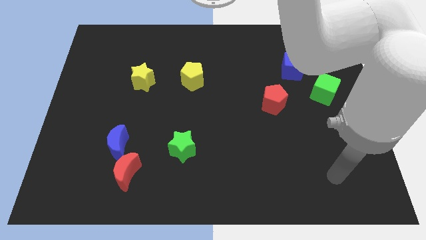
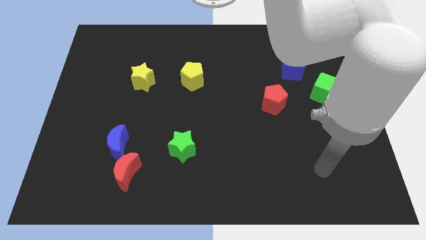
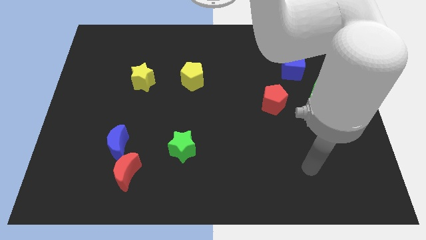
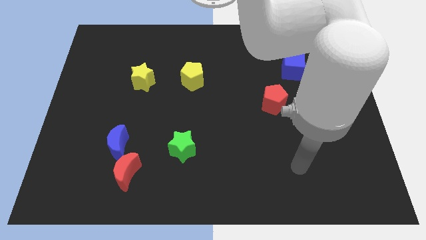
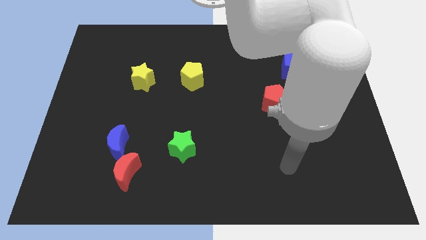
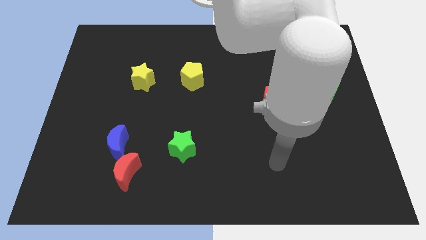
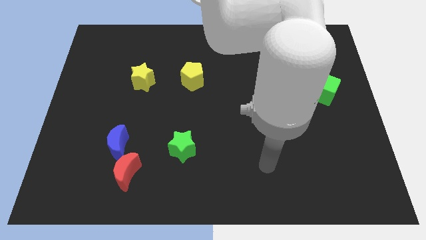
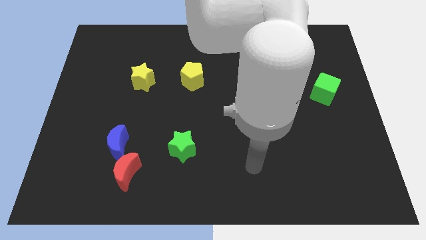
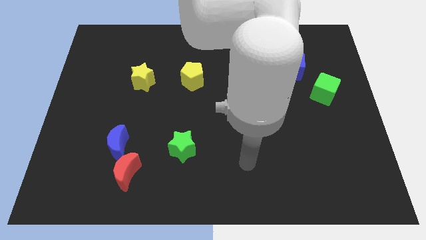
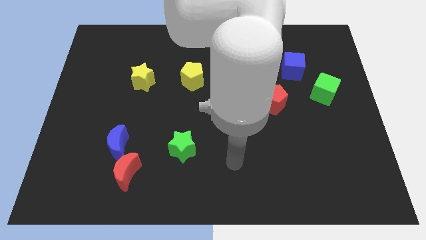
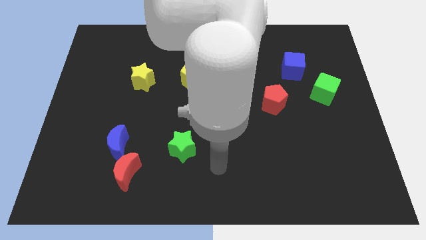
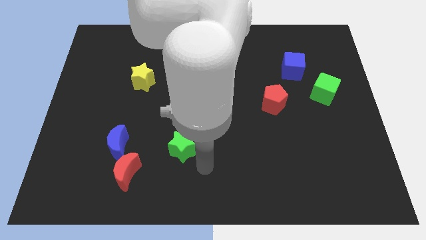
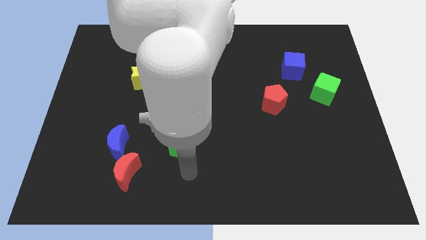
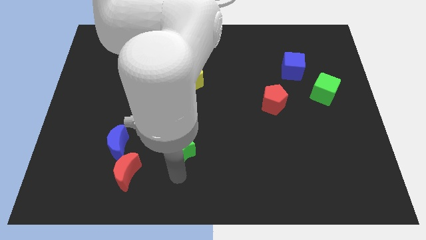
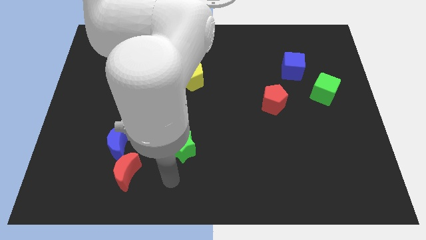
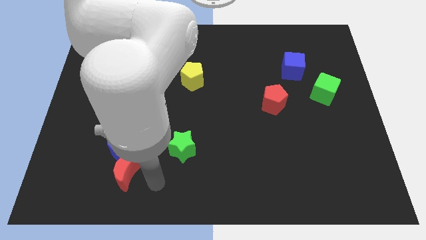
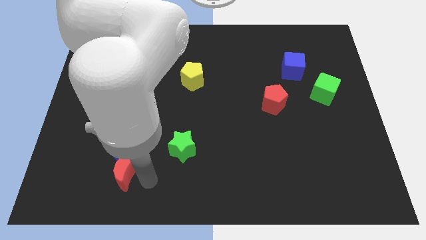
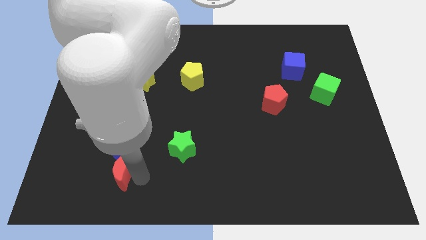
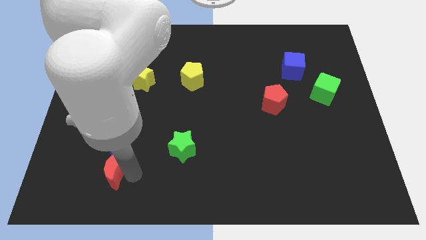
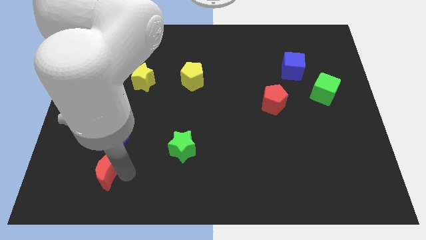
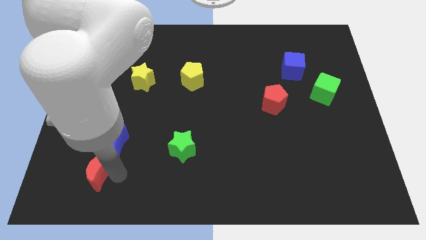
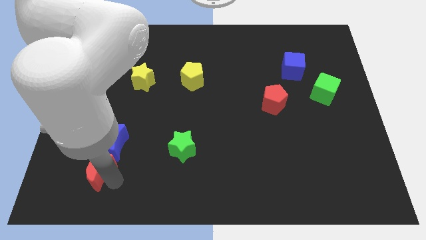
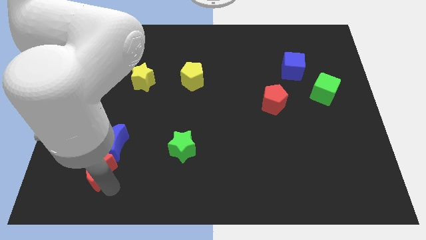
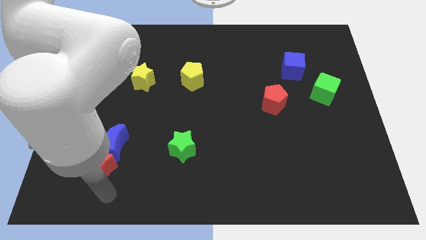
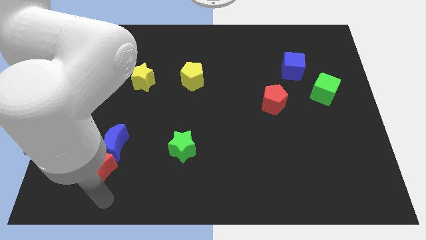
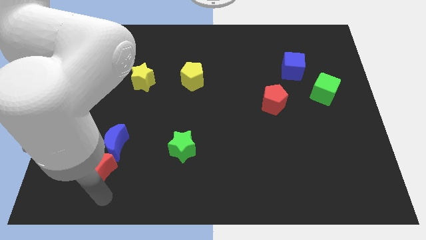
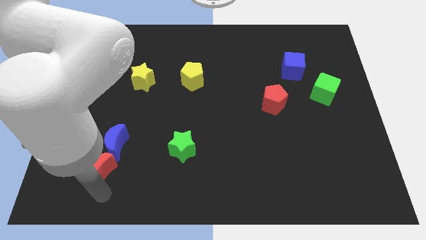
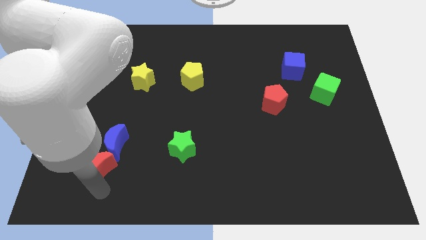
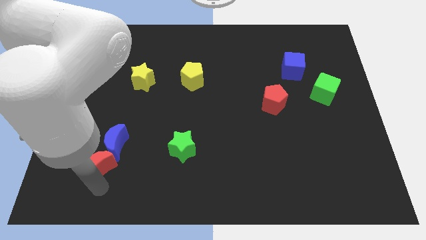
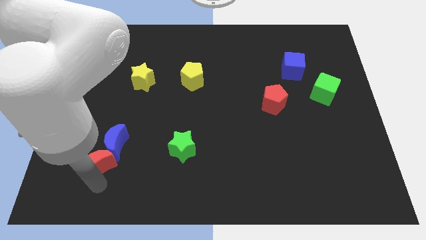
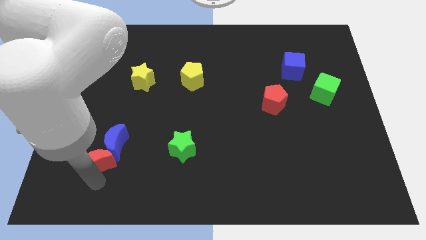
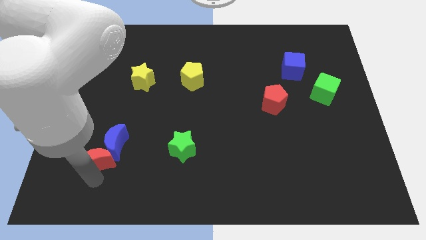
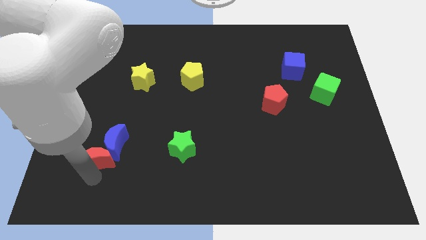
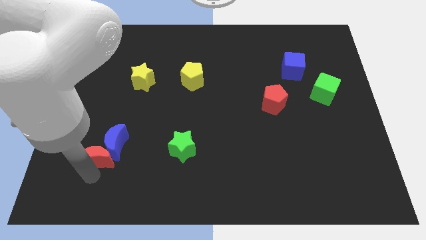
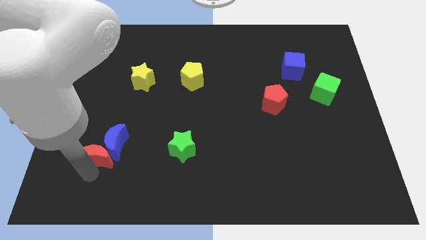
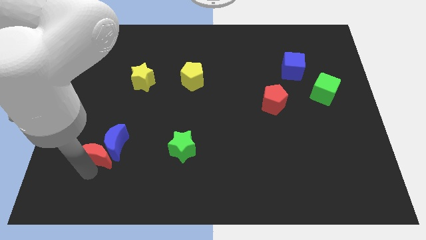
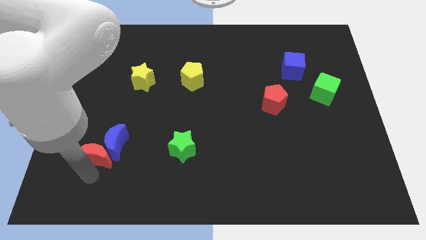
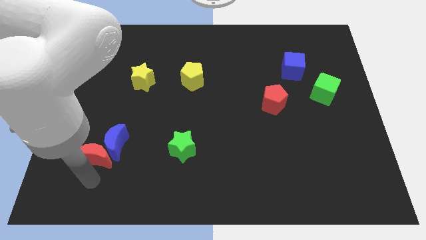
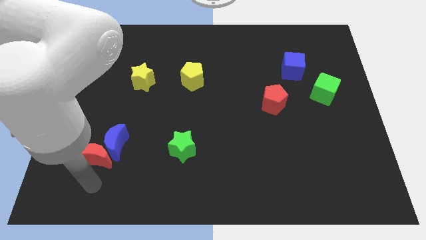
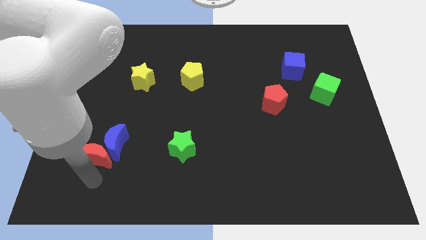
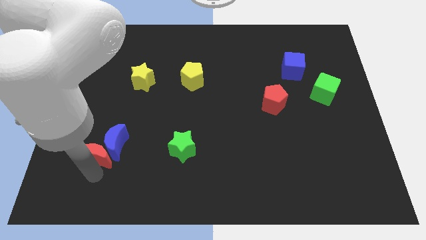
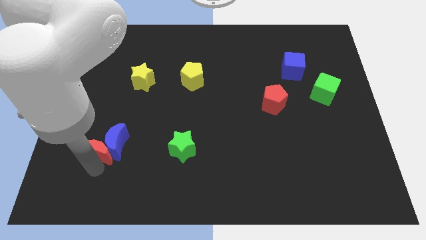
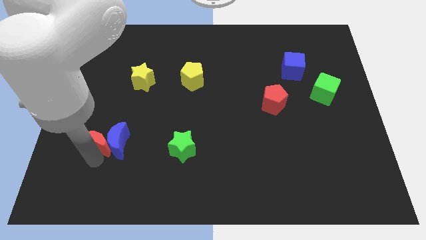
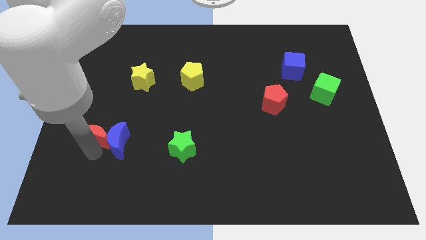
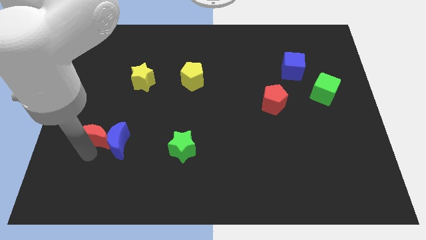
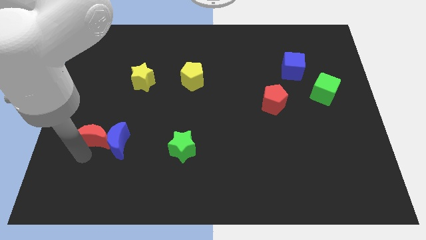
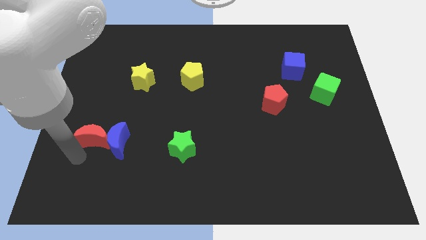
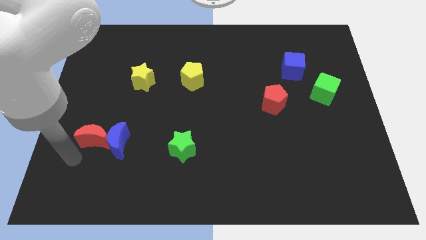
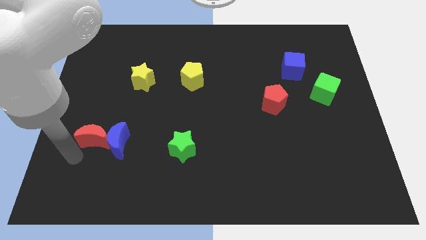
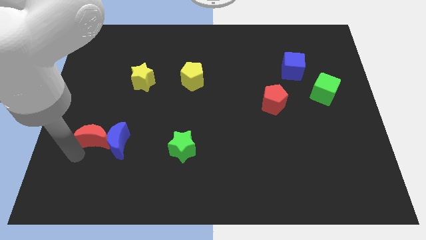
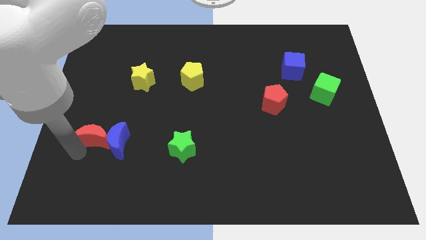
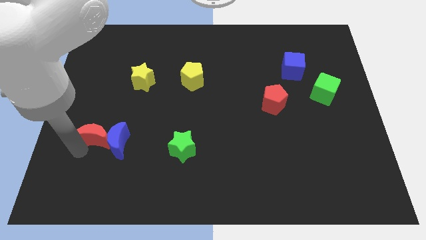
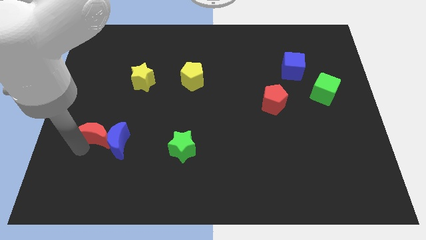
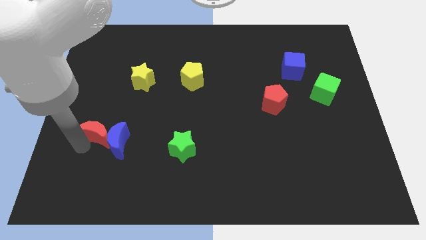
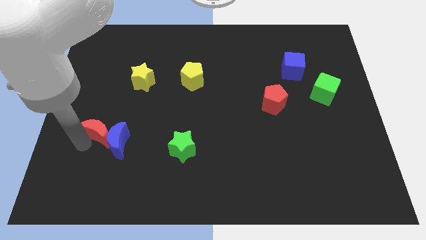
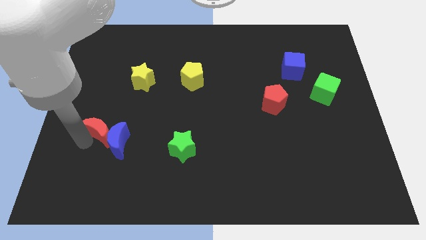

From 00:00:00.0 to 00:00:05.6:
push the red moon above the blue moon

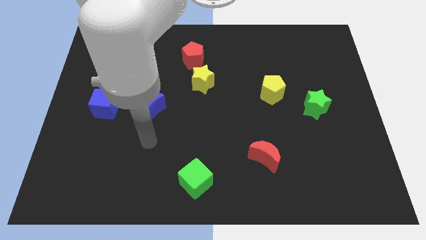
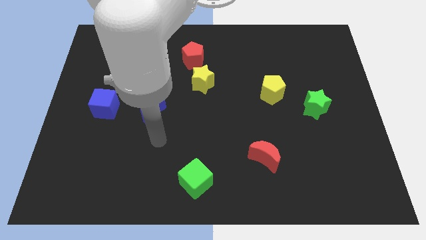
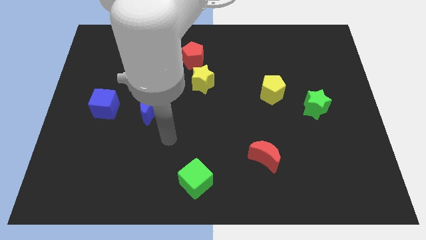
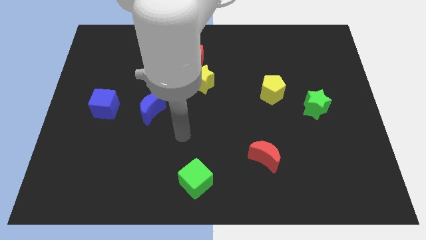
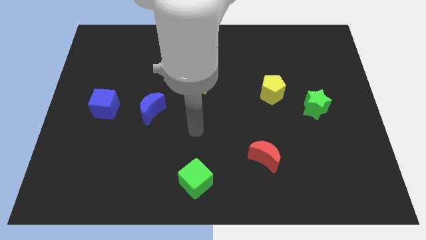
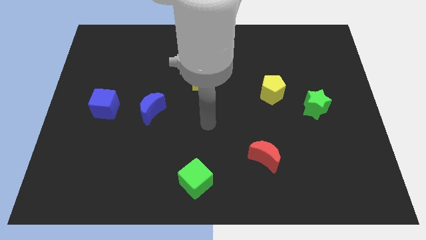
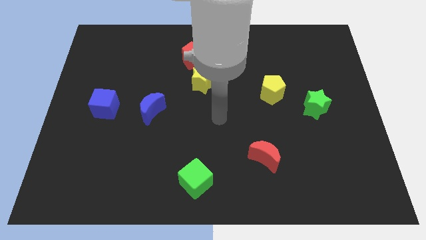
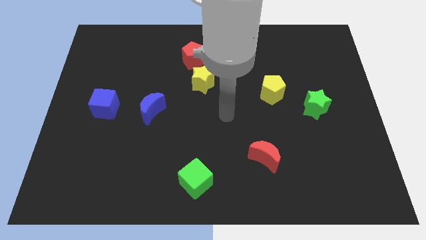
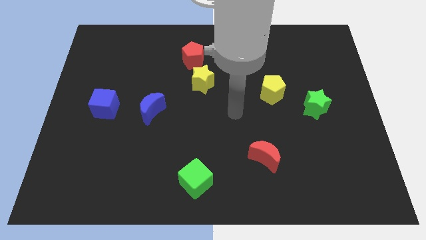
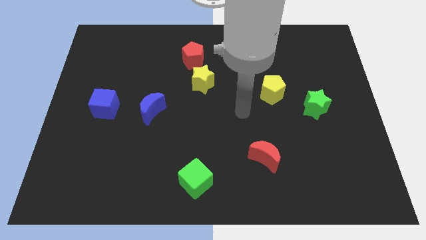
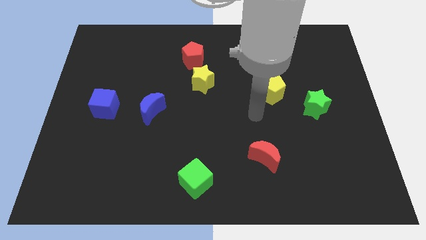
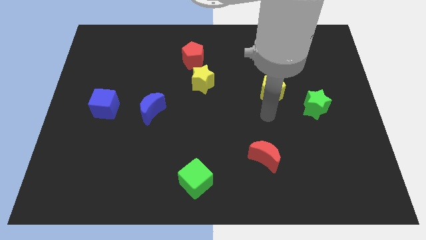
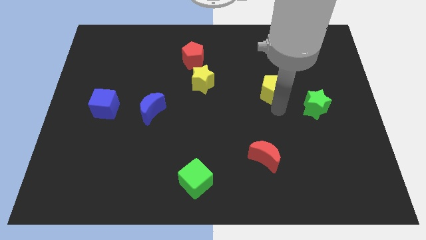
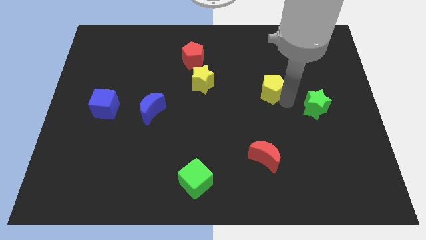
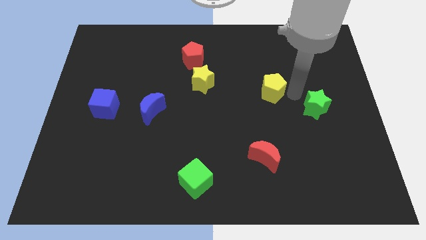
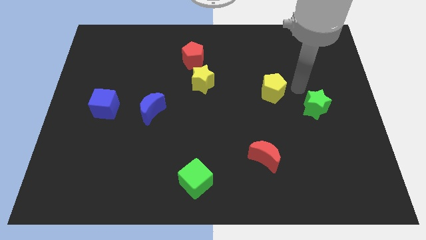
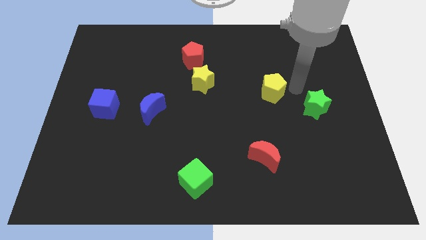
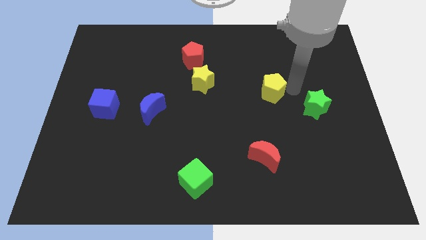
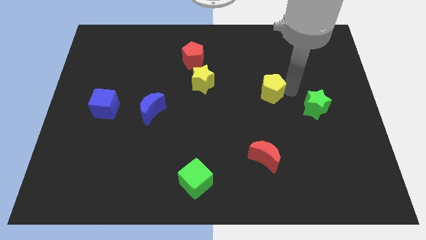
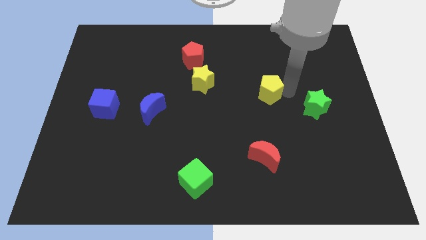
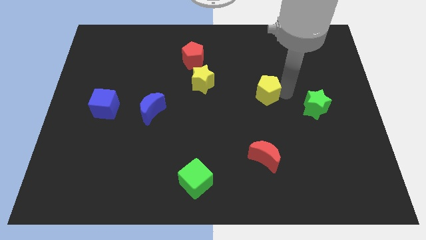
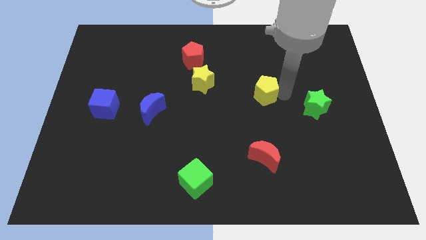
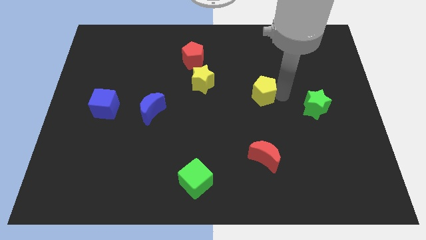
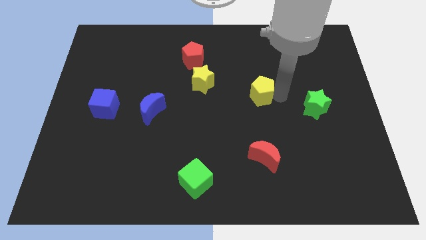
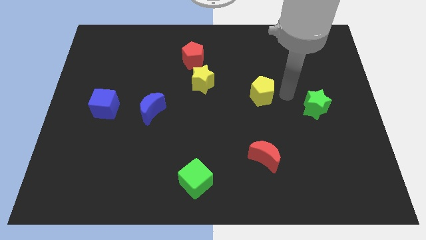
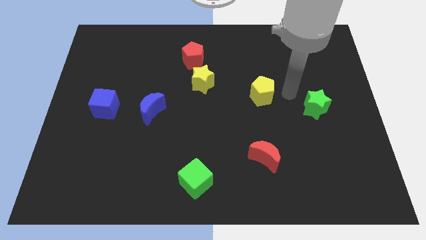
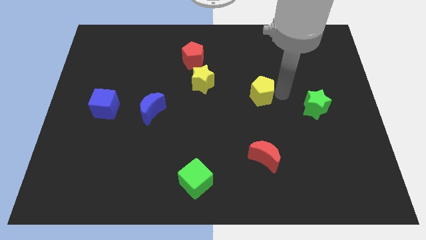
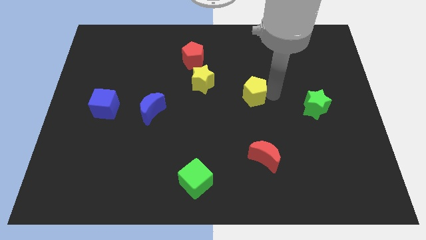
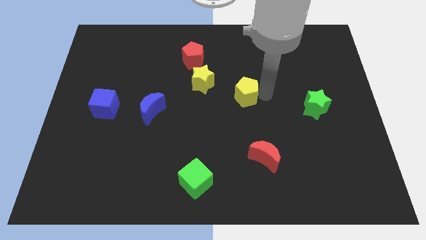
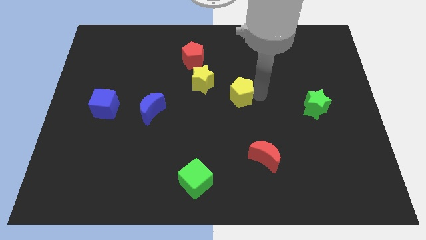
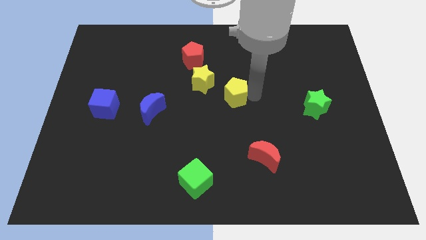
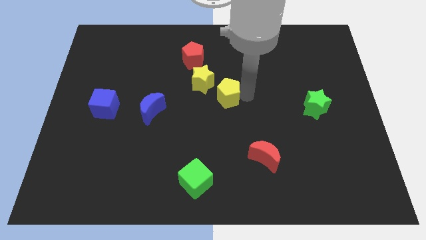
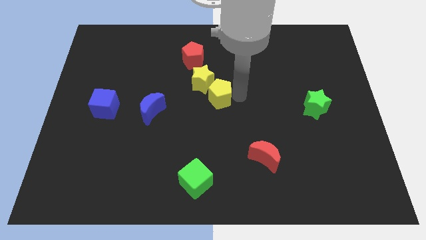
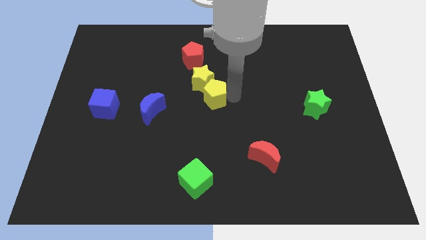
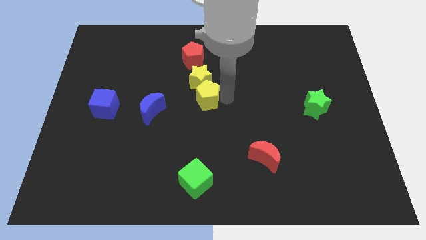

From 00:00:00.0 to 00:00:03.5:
move the yellow pentagon to the bottom side of the red pentagon
